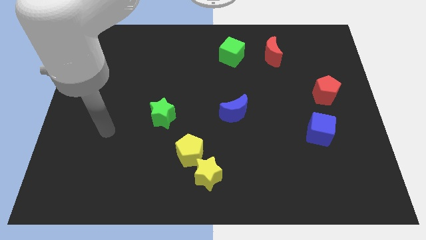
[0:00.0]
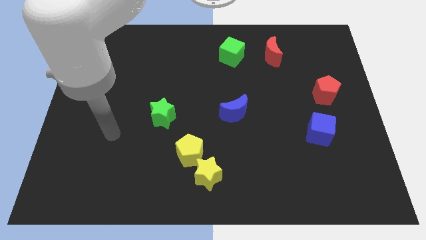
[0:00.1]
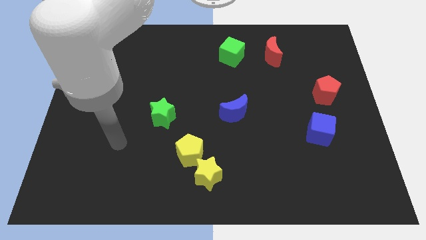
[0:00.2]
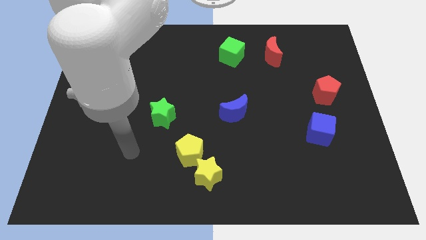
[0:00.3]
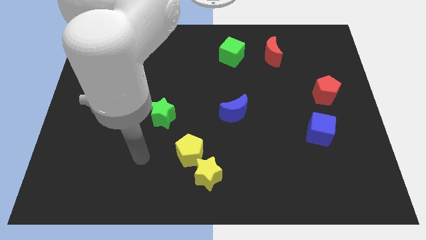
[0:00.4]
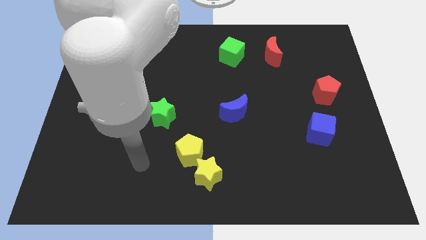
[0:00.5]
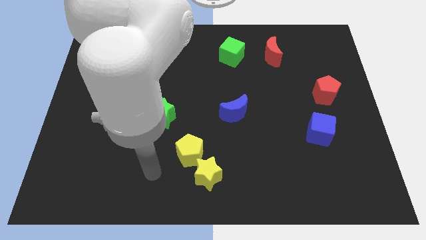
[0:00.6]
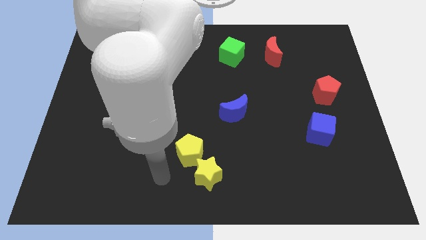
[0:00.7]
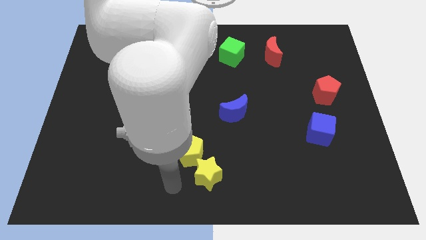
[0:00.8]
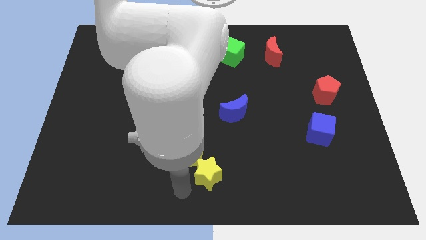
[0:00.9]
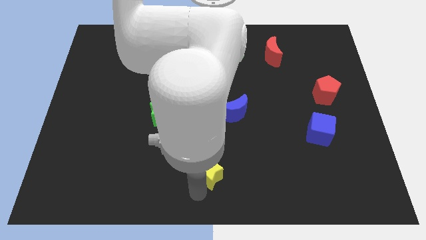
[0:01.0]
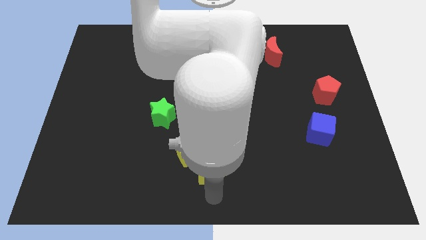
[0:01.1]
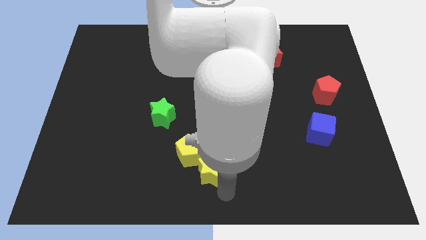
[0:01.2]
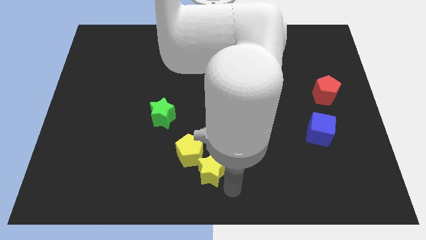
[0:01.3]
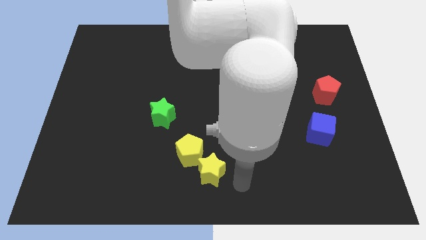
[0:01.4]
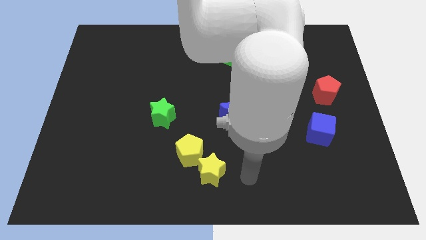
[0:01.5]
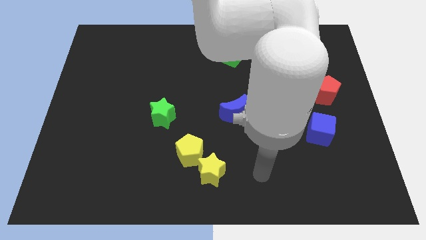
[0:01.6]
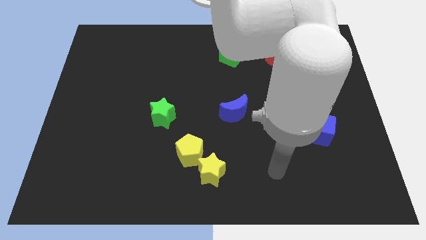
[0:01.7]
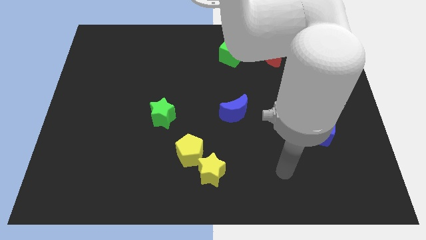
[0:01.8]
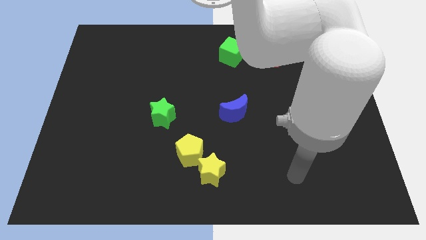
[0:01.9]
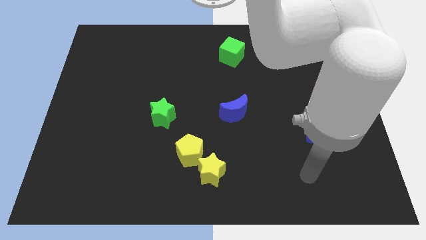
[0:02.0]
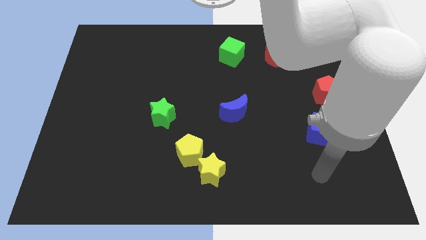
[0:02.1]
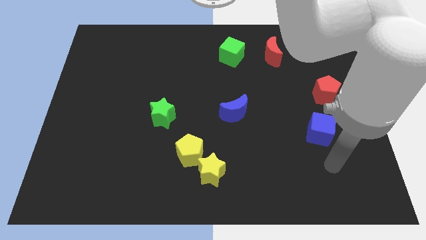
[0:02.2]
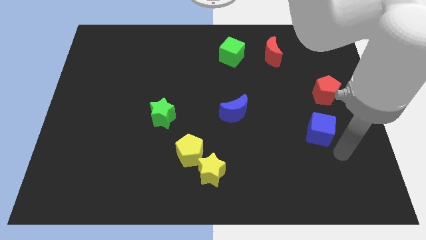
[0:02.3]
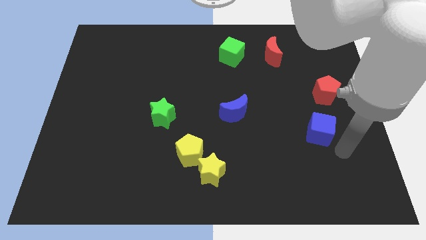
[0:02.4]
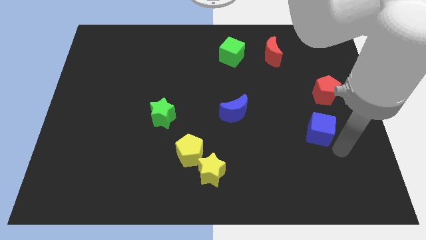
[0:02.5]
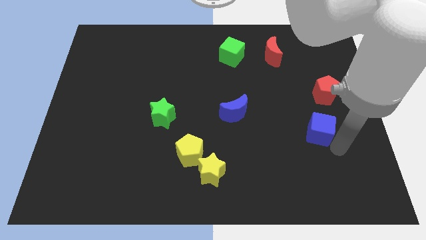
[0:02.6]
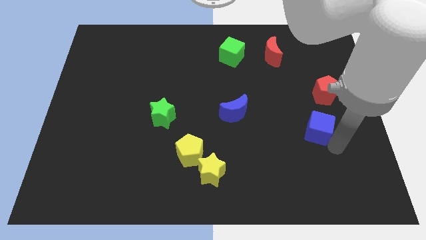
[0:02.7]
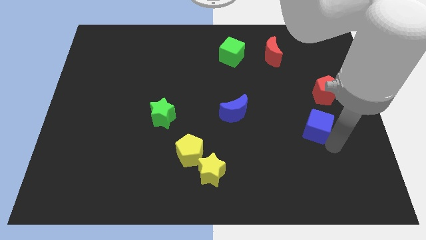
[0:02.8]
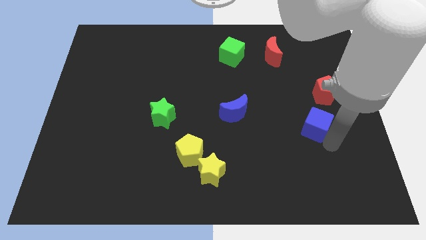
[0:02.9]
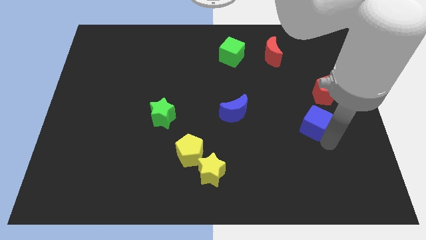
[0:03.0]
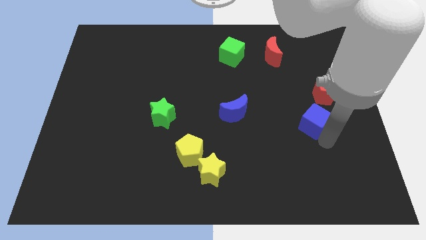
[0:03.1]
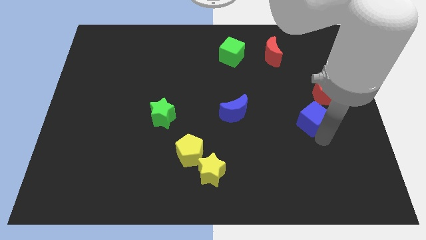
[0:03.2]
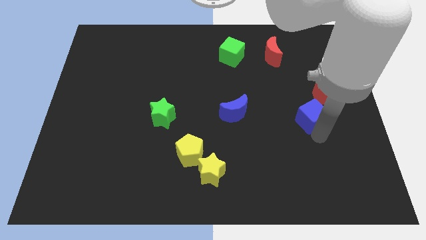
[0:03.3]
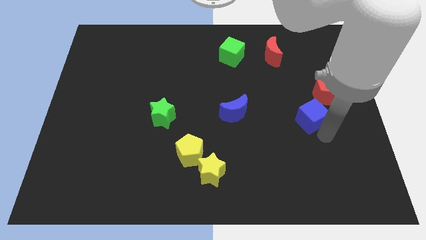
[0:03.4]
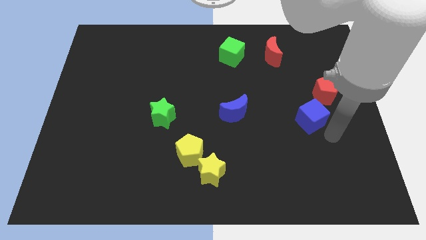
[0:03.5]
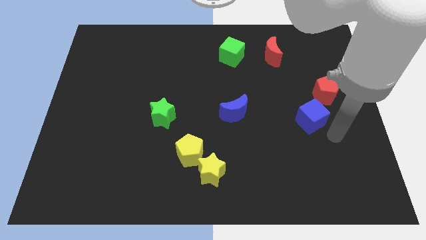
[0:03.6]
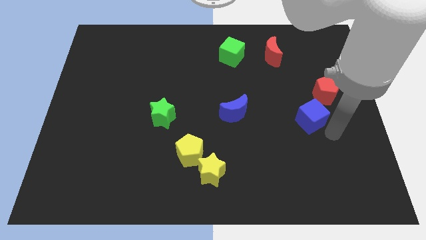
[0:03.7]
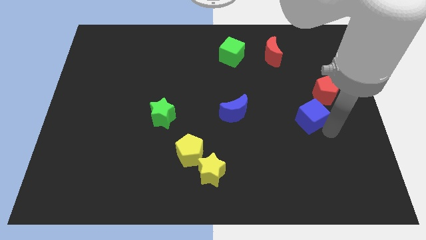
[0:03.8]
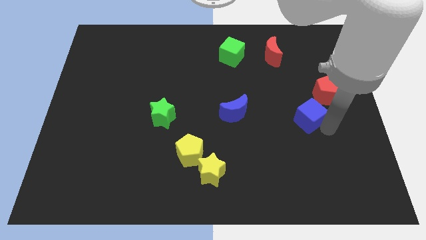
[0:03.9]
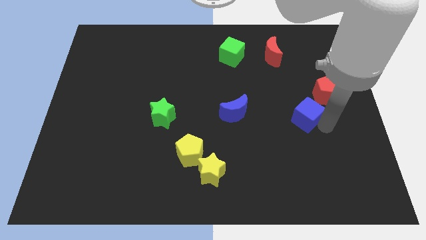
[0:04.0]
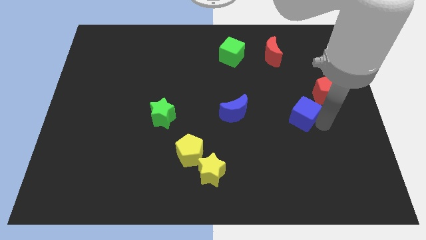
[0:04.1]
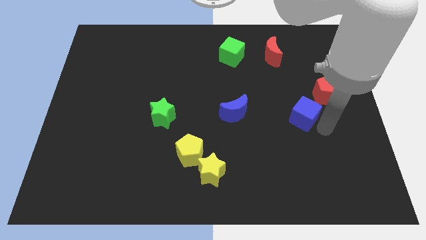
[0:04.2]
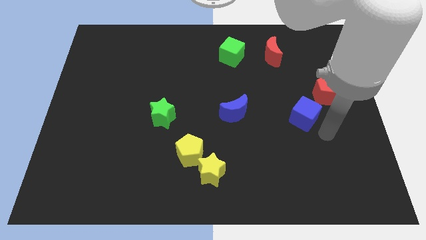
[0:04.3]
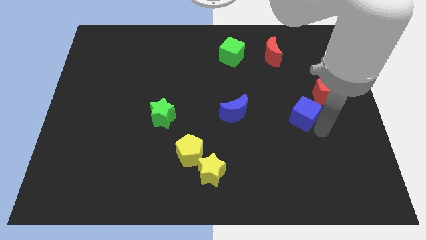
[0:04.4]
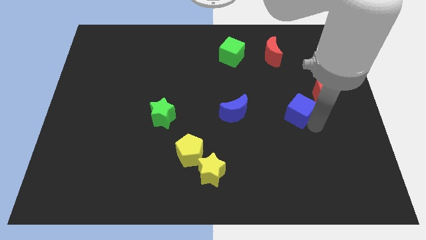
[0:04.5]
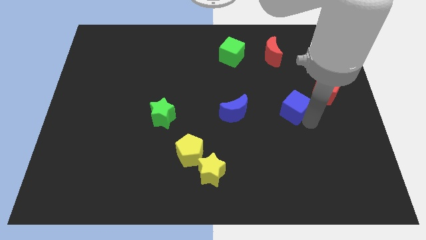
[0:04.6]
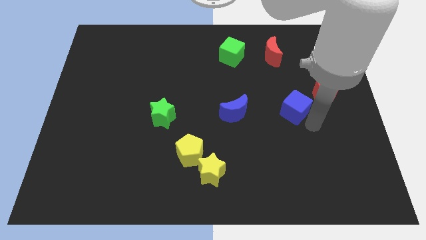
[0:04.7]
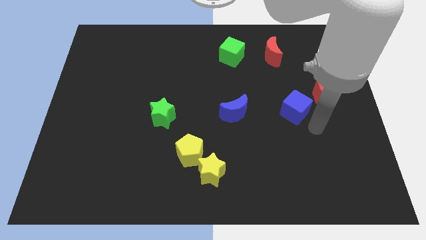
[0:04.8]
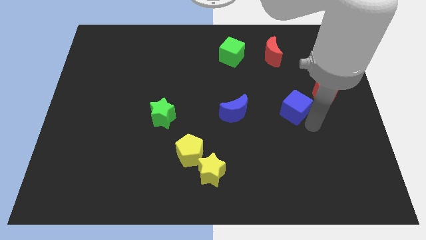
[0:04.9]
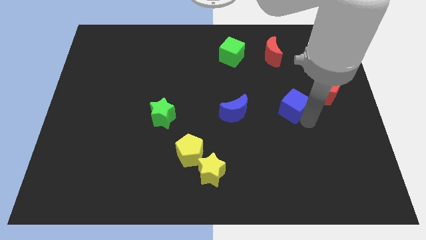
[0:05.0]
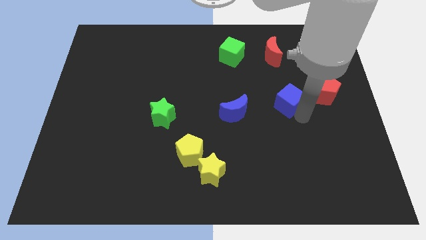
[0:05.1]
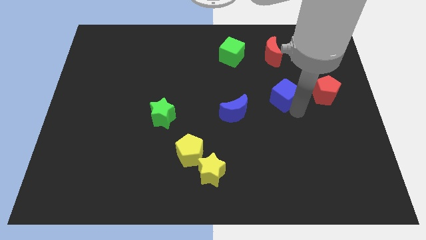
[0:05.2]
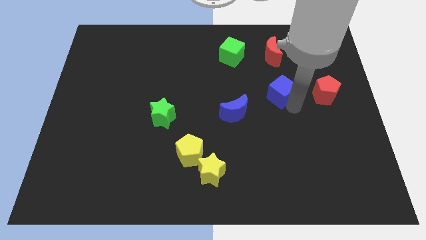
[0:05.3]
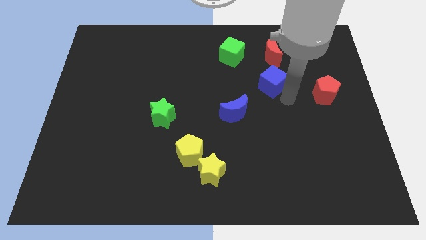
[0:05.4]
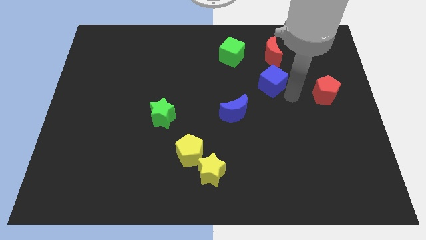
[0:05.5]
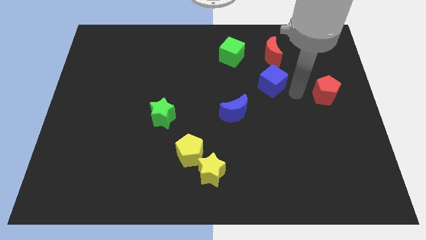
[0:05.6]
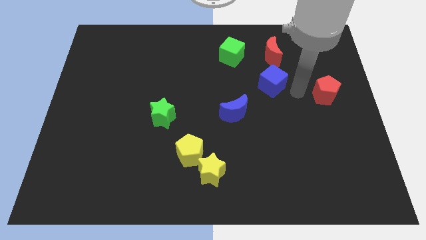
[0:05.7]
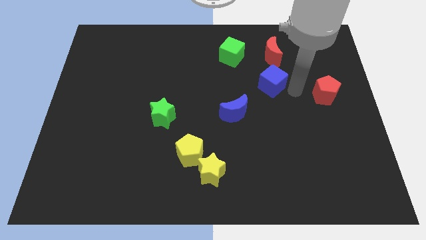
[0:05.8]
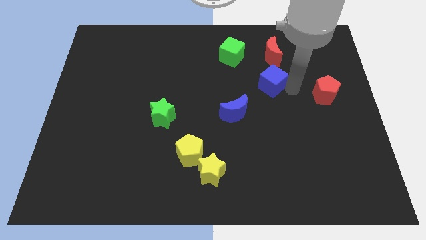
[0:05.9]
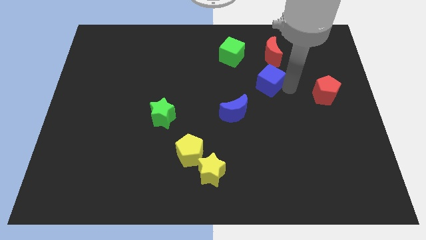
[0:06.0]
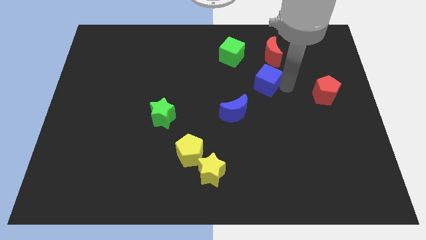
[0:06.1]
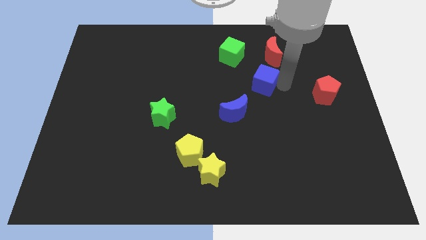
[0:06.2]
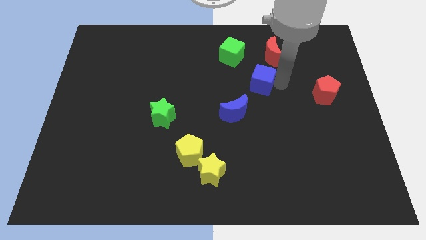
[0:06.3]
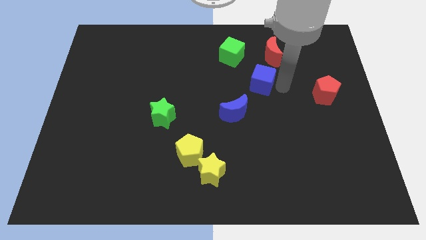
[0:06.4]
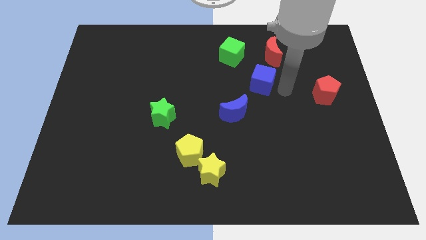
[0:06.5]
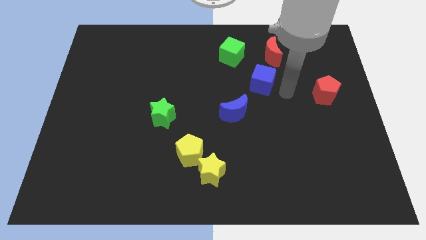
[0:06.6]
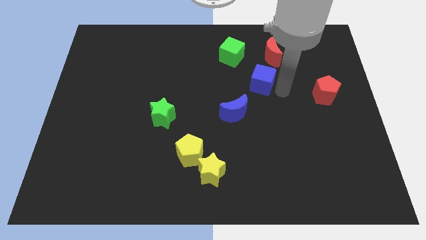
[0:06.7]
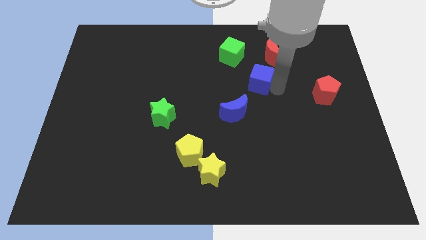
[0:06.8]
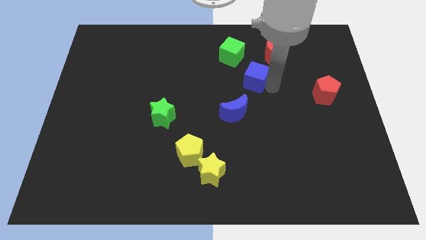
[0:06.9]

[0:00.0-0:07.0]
slide the blue cube up and then left

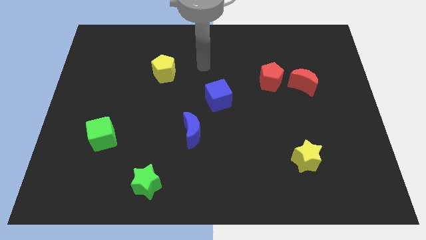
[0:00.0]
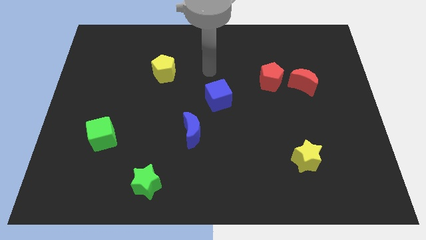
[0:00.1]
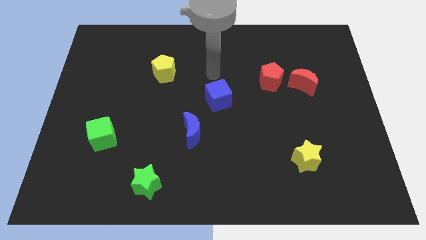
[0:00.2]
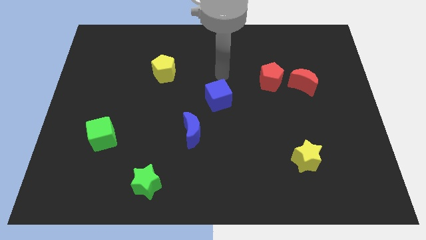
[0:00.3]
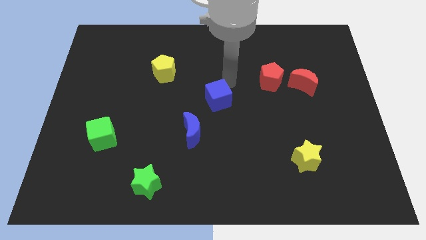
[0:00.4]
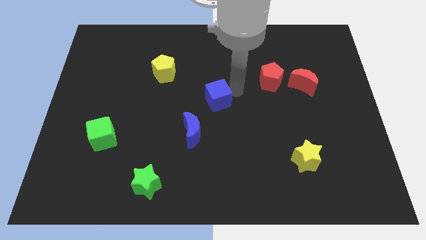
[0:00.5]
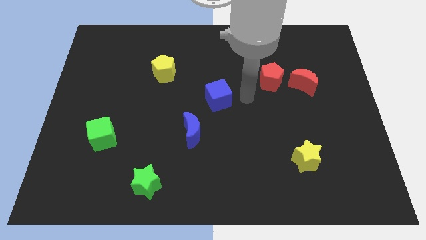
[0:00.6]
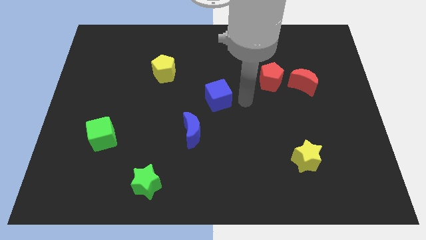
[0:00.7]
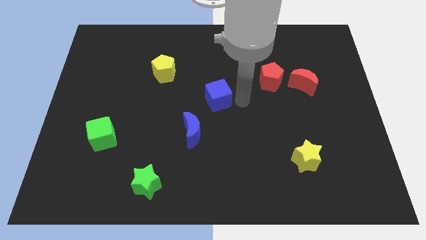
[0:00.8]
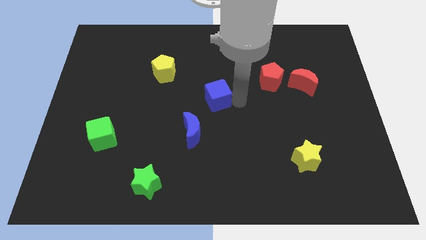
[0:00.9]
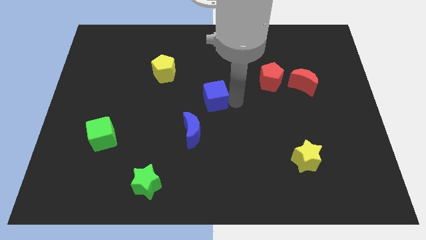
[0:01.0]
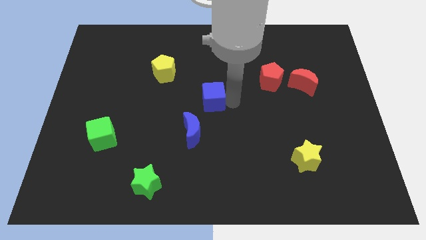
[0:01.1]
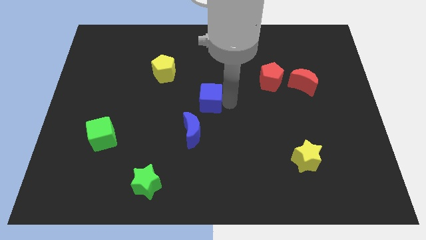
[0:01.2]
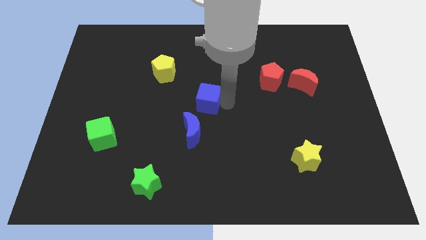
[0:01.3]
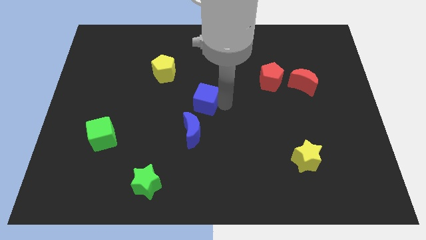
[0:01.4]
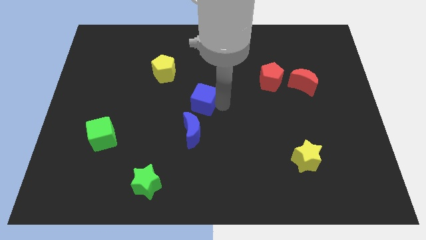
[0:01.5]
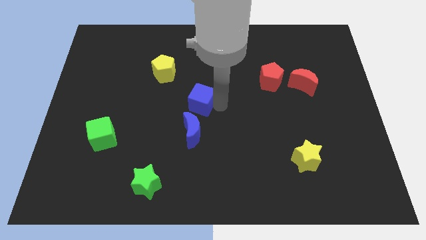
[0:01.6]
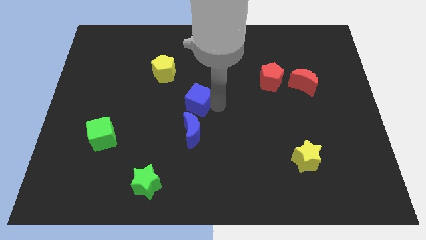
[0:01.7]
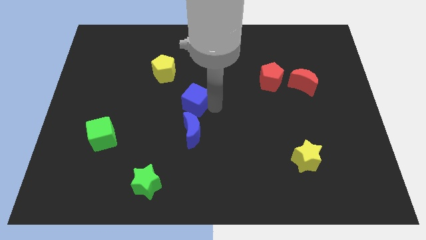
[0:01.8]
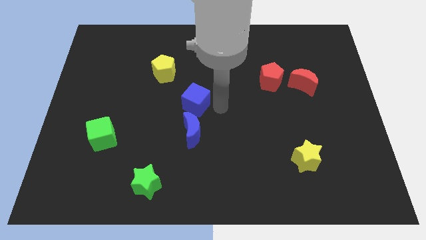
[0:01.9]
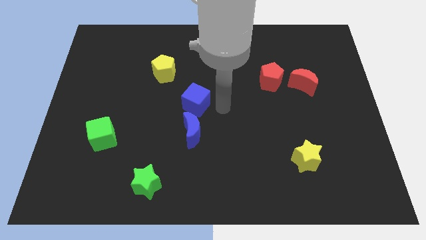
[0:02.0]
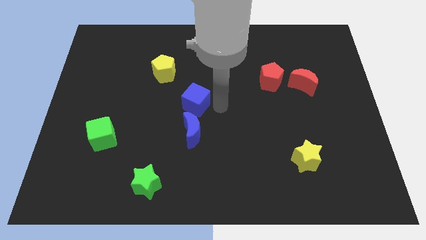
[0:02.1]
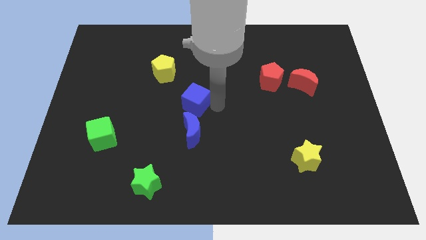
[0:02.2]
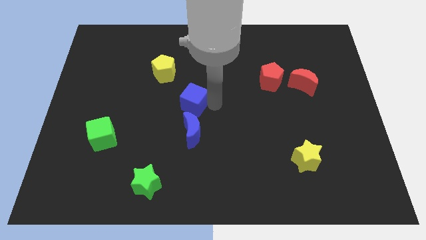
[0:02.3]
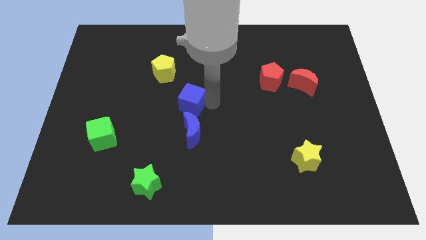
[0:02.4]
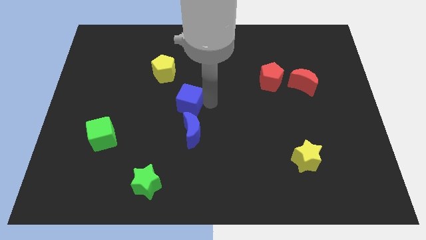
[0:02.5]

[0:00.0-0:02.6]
slightly push the blue cube left
